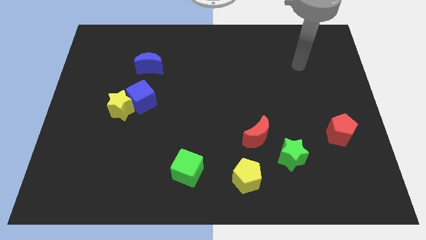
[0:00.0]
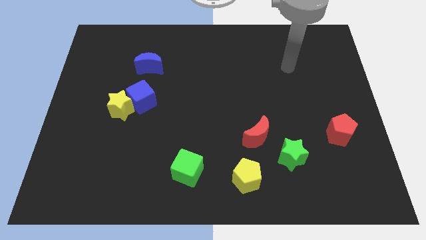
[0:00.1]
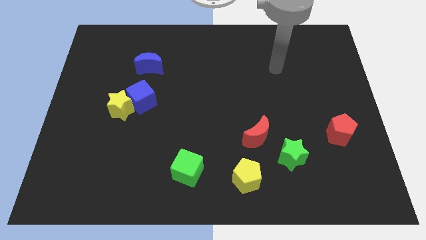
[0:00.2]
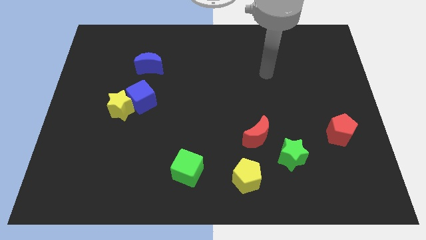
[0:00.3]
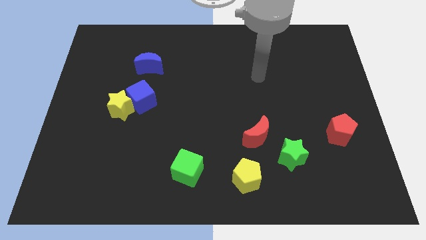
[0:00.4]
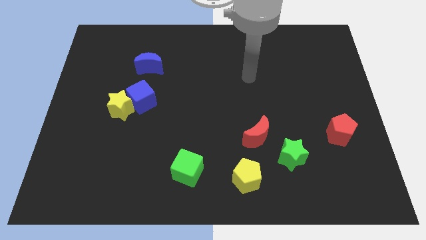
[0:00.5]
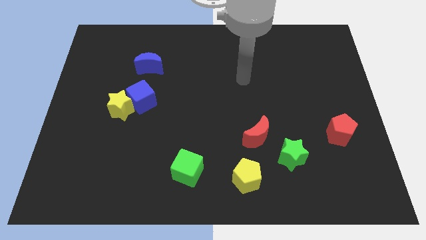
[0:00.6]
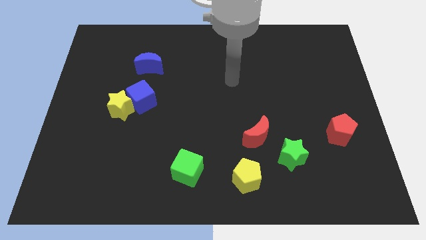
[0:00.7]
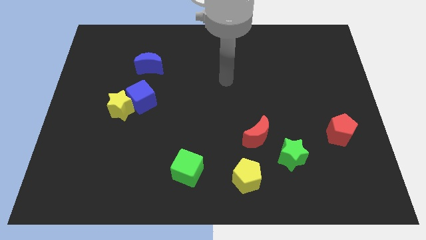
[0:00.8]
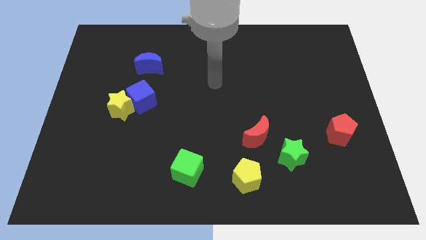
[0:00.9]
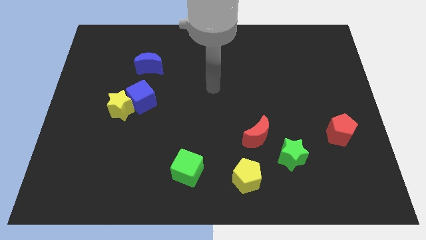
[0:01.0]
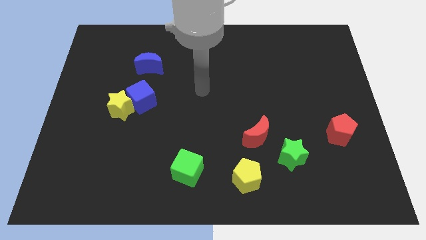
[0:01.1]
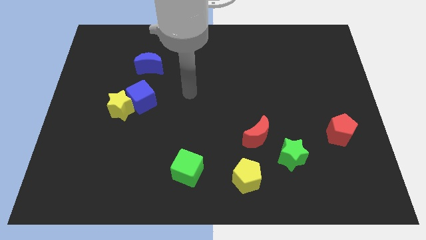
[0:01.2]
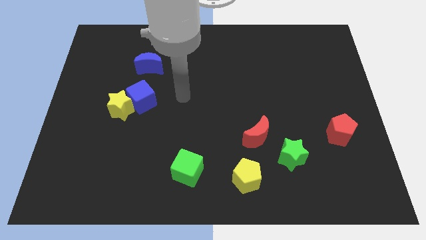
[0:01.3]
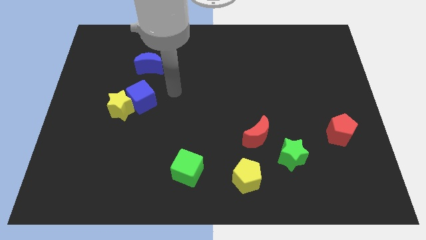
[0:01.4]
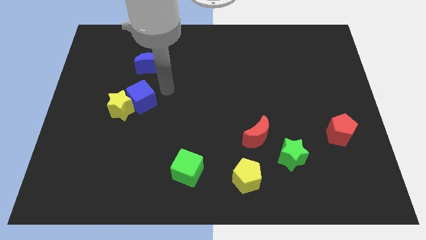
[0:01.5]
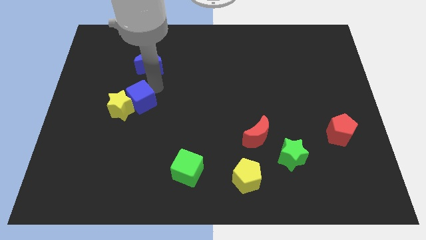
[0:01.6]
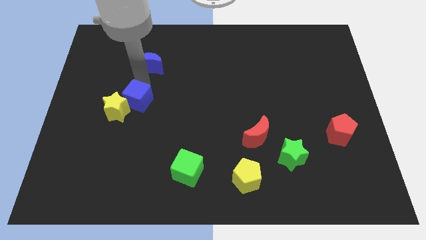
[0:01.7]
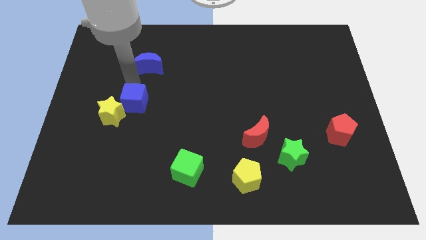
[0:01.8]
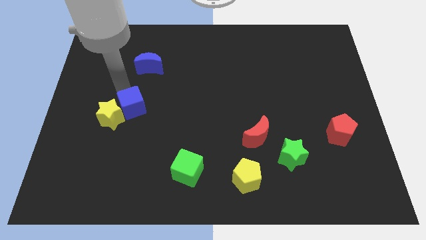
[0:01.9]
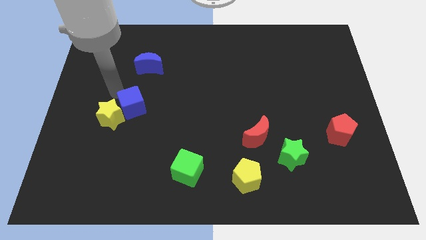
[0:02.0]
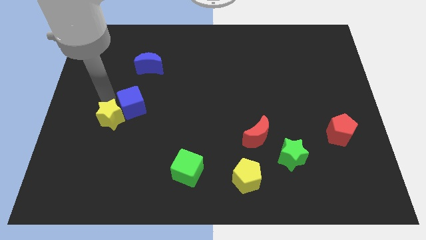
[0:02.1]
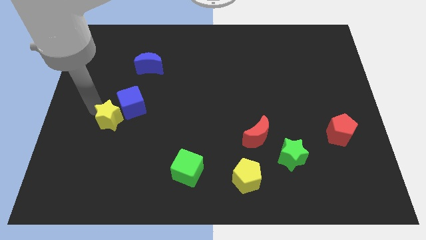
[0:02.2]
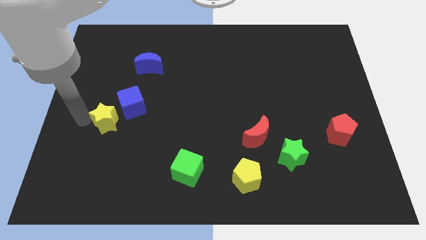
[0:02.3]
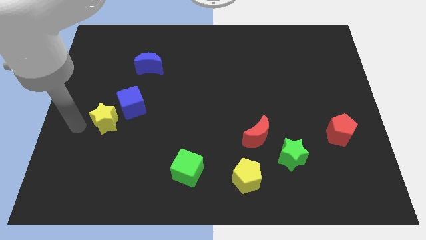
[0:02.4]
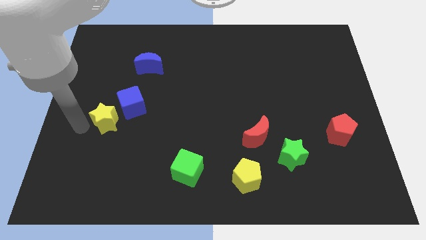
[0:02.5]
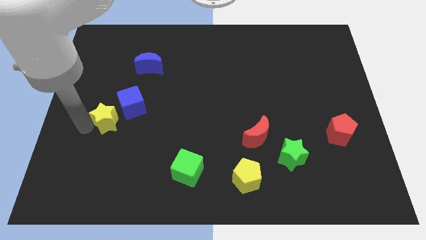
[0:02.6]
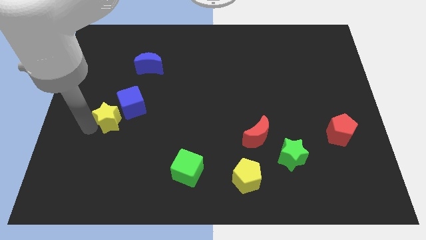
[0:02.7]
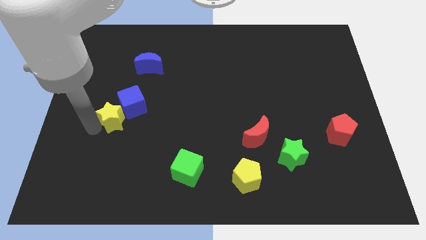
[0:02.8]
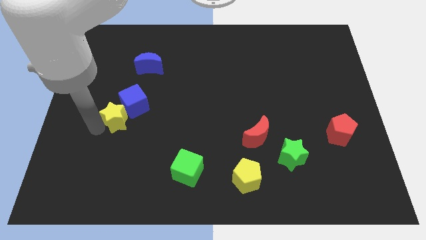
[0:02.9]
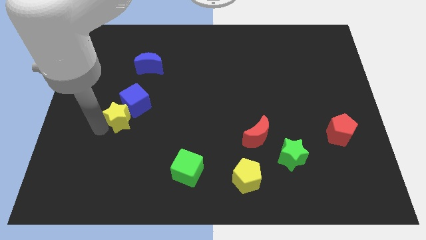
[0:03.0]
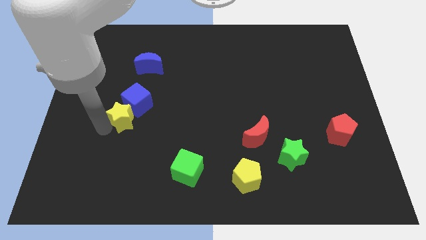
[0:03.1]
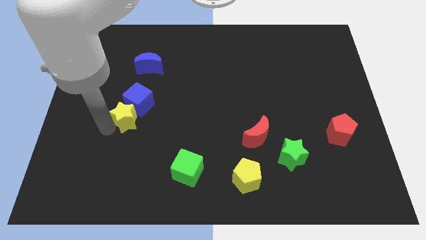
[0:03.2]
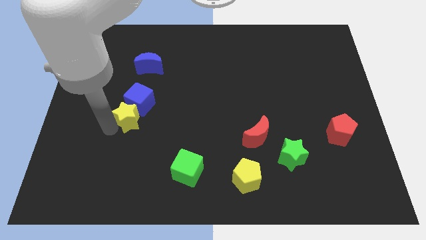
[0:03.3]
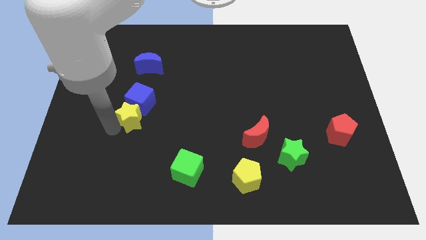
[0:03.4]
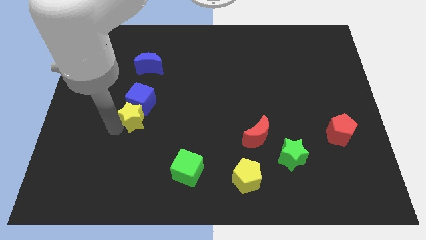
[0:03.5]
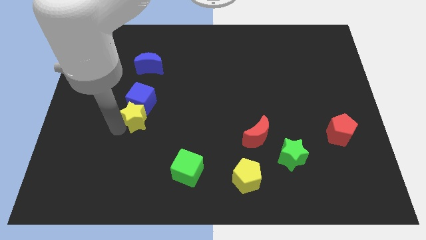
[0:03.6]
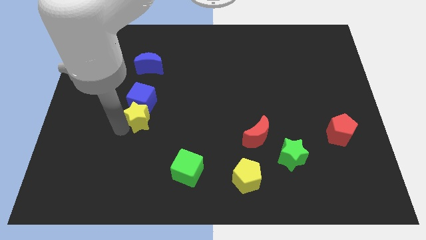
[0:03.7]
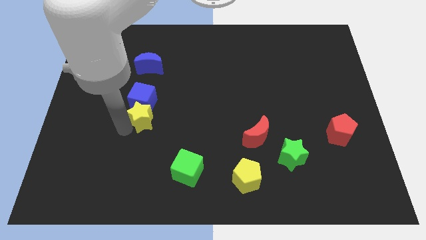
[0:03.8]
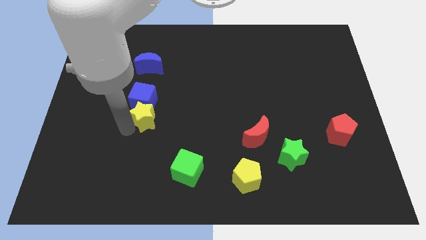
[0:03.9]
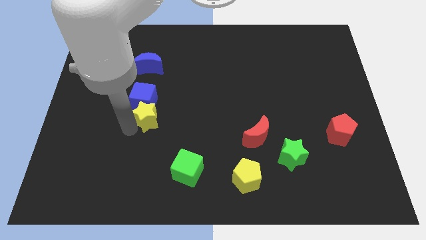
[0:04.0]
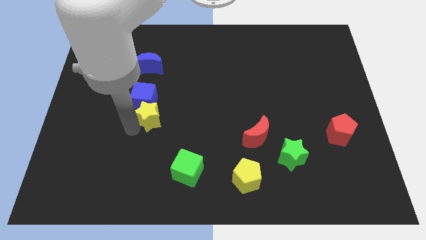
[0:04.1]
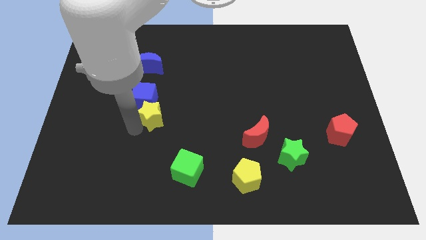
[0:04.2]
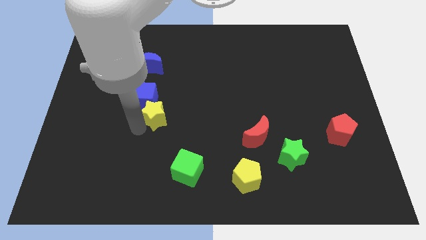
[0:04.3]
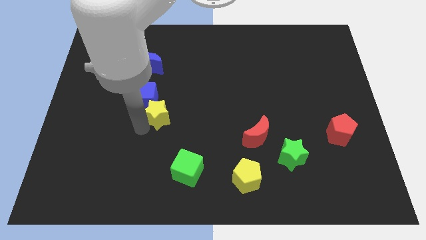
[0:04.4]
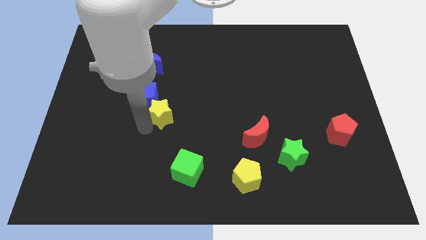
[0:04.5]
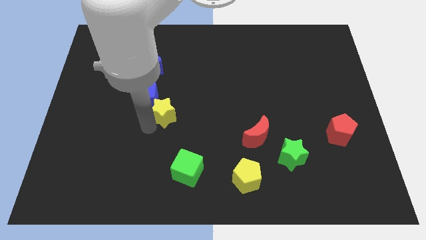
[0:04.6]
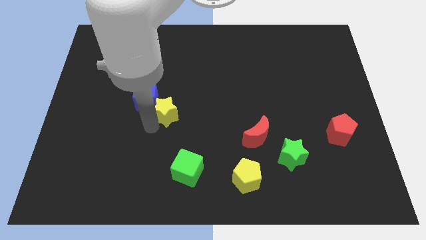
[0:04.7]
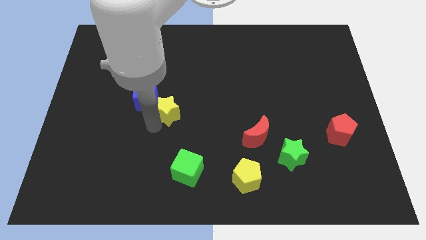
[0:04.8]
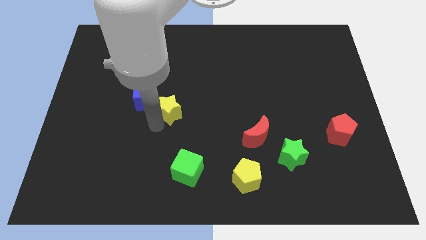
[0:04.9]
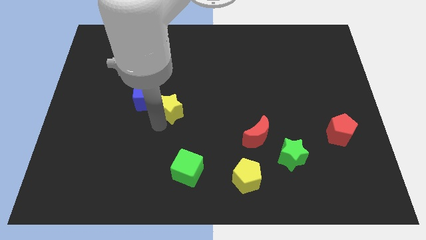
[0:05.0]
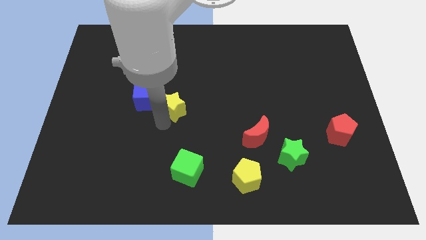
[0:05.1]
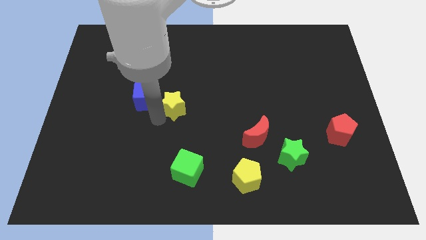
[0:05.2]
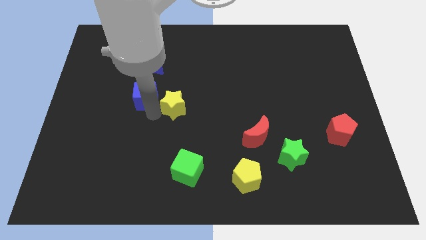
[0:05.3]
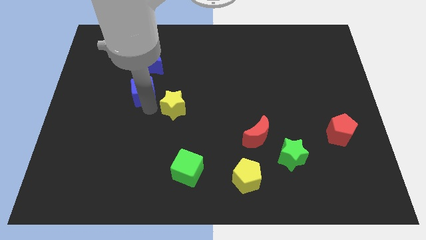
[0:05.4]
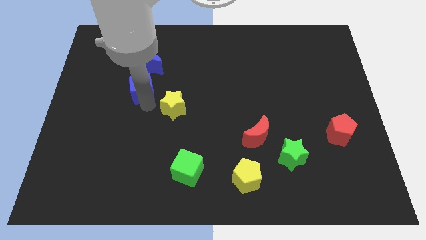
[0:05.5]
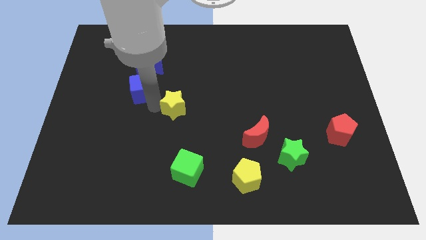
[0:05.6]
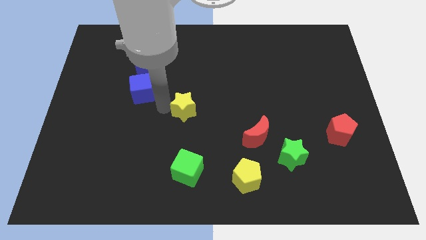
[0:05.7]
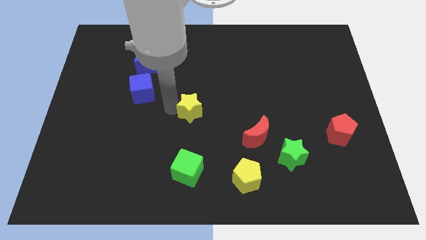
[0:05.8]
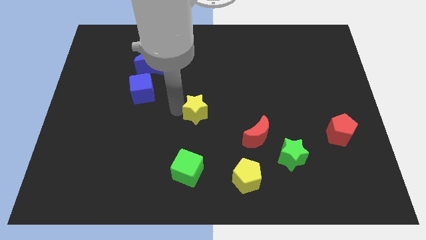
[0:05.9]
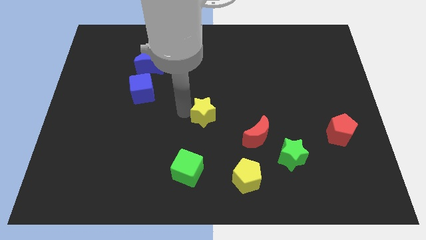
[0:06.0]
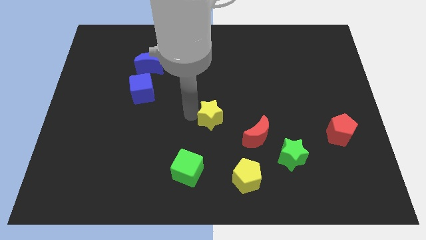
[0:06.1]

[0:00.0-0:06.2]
push the yellow star right

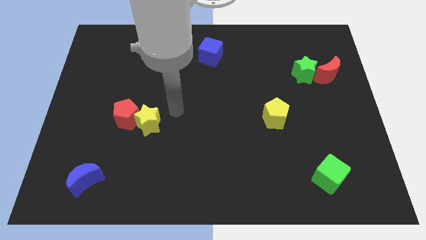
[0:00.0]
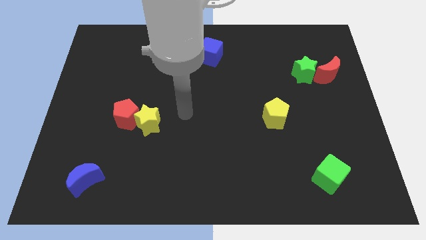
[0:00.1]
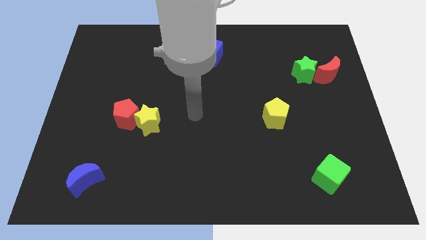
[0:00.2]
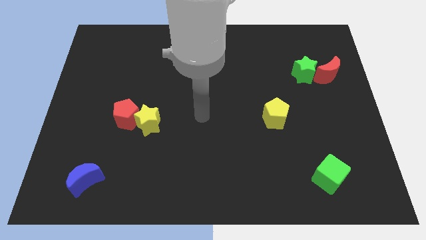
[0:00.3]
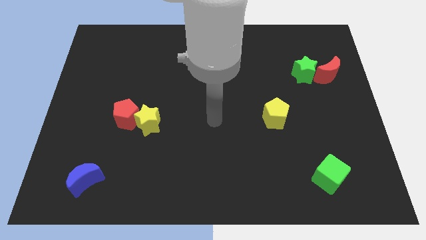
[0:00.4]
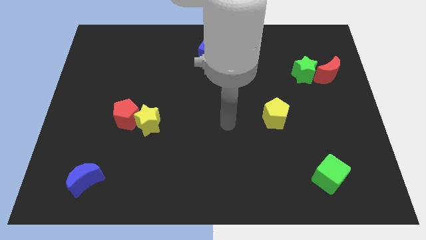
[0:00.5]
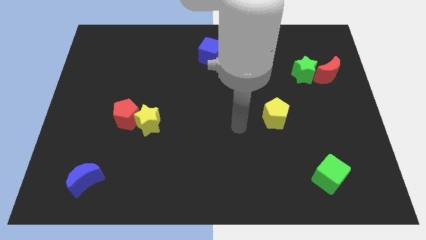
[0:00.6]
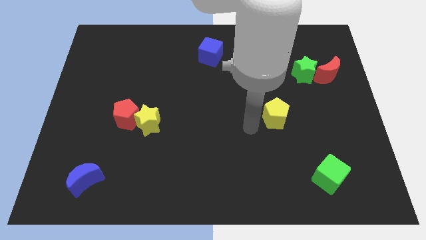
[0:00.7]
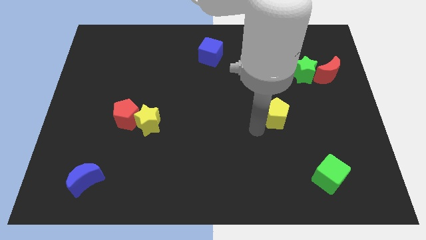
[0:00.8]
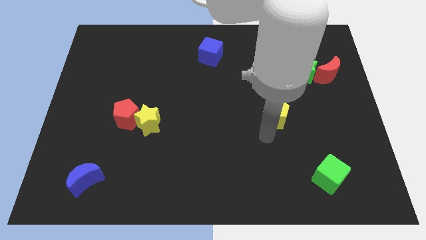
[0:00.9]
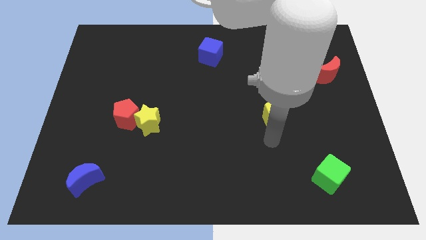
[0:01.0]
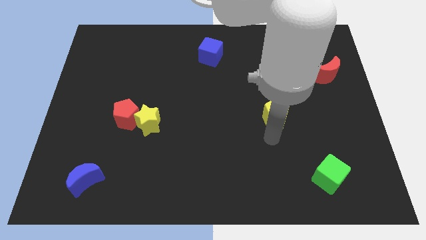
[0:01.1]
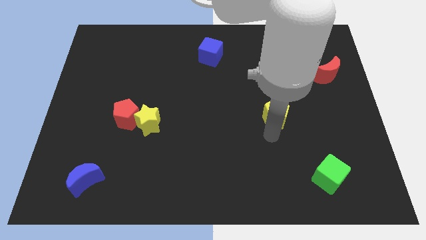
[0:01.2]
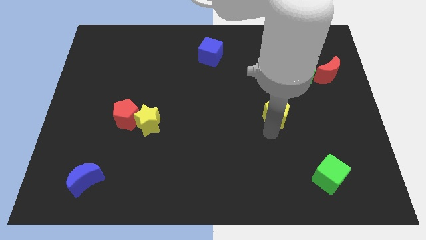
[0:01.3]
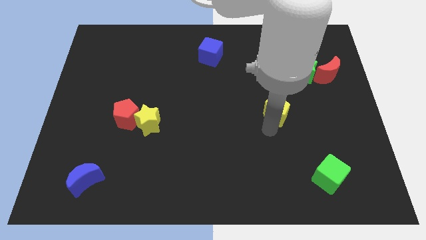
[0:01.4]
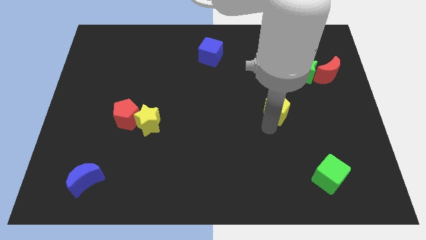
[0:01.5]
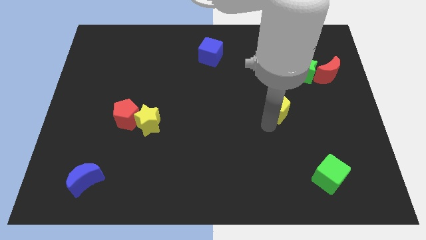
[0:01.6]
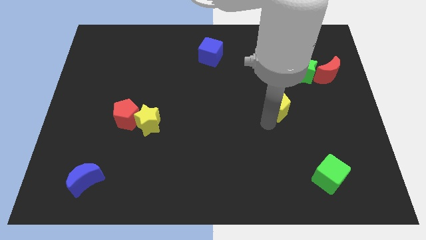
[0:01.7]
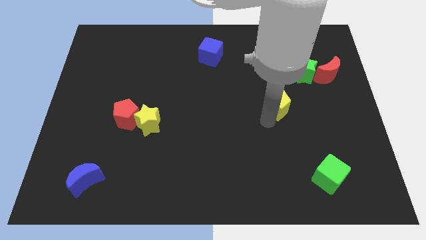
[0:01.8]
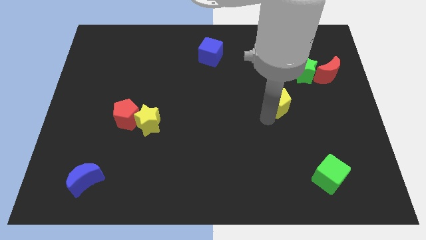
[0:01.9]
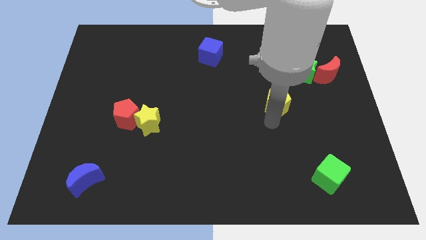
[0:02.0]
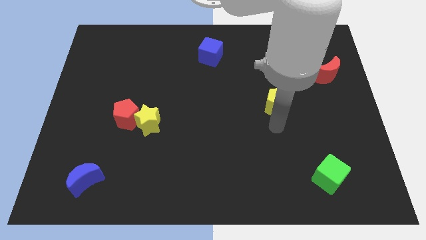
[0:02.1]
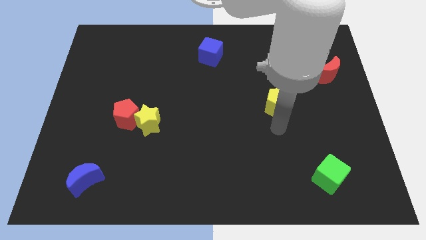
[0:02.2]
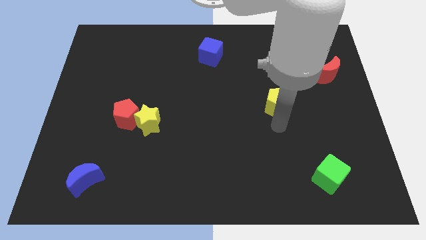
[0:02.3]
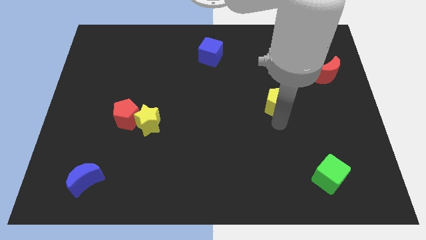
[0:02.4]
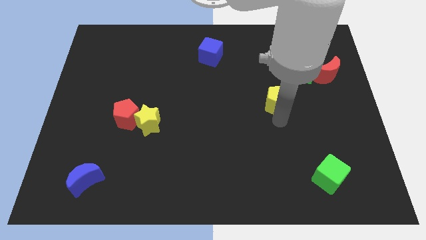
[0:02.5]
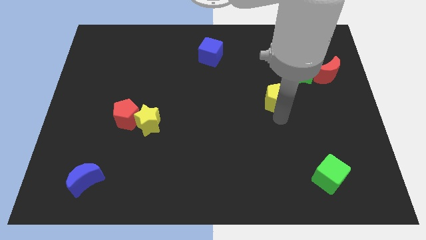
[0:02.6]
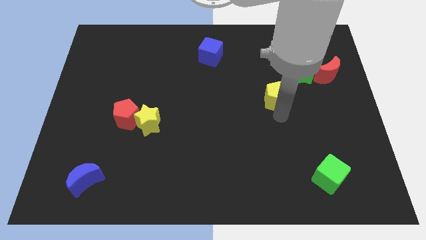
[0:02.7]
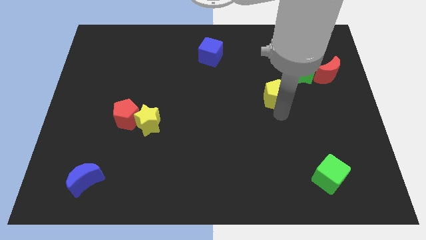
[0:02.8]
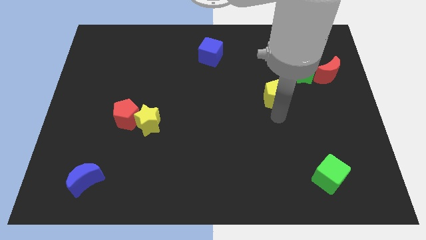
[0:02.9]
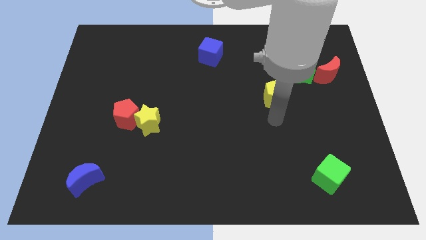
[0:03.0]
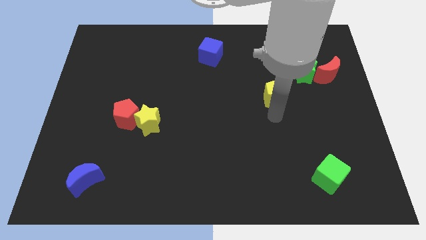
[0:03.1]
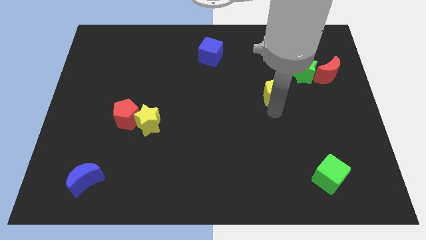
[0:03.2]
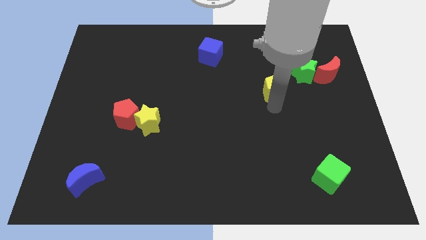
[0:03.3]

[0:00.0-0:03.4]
move the yellow pentagon upwards somewhat
